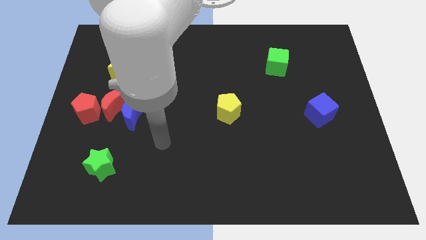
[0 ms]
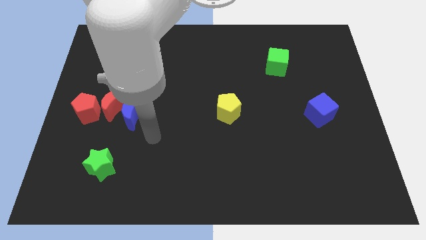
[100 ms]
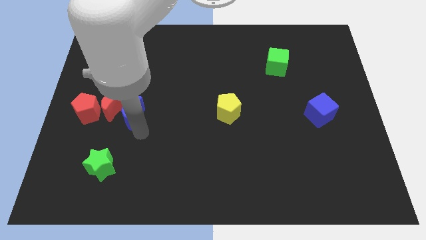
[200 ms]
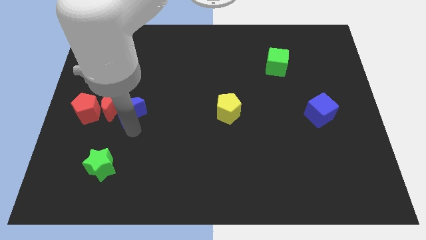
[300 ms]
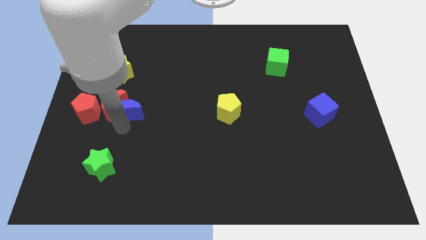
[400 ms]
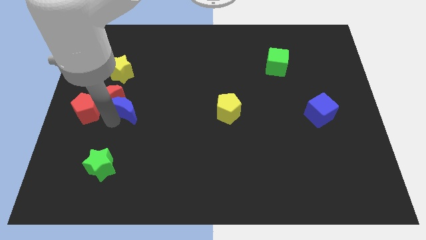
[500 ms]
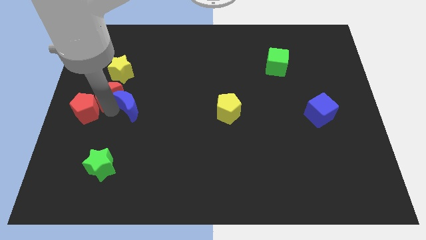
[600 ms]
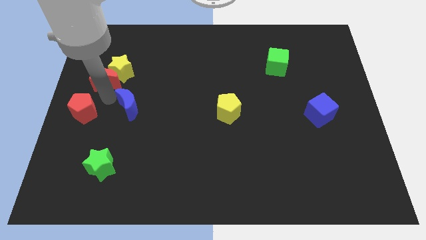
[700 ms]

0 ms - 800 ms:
separate the blue moon from the red moon

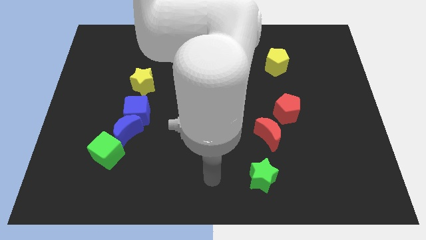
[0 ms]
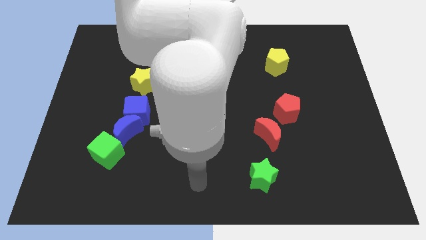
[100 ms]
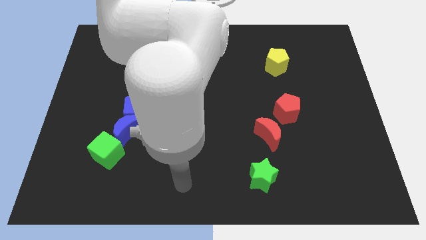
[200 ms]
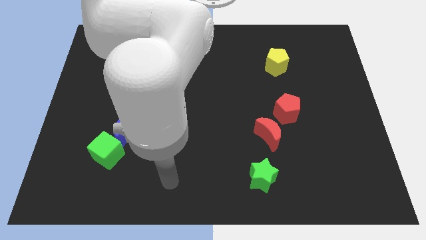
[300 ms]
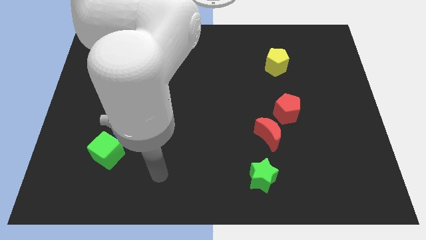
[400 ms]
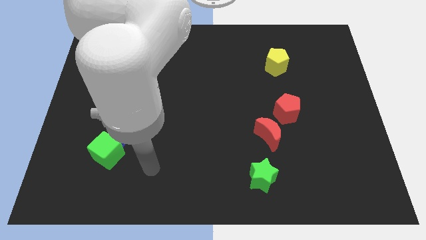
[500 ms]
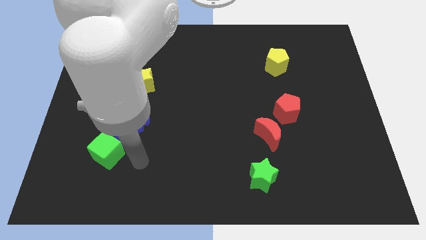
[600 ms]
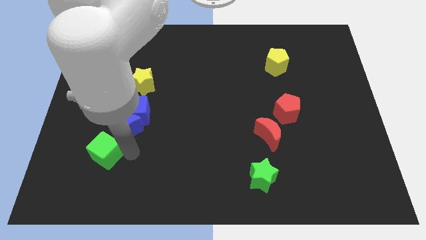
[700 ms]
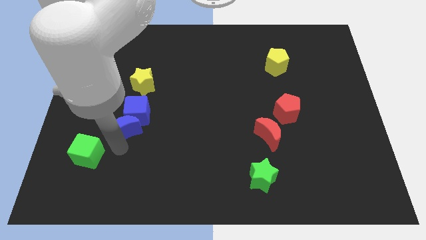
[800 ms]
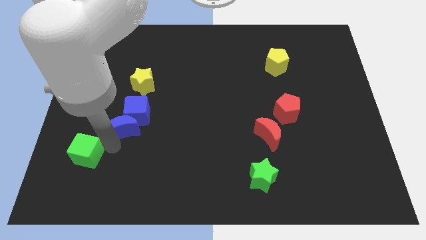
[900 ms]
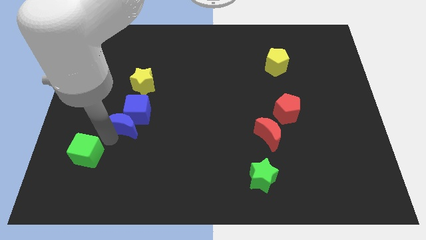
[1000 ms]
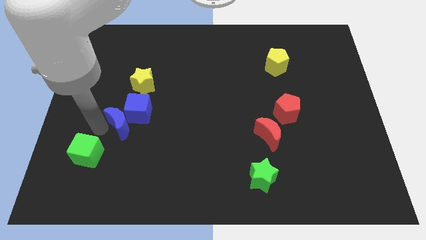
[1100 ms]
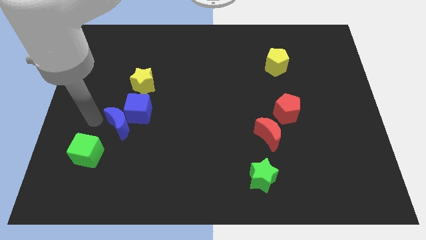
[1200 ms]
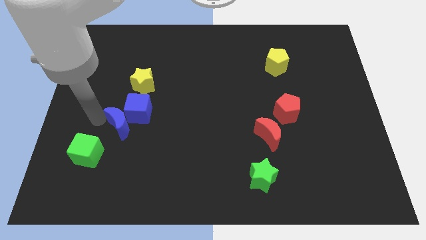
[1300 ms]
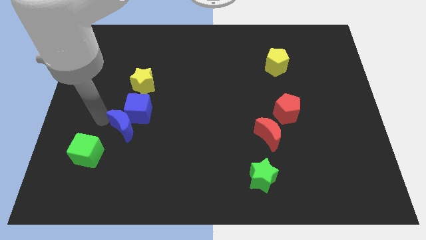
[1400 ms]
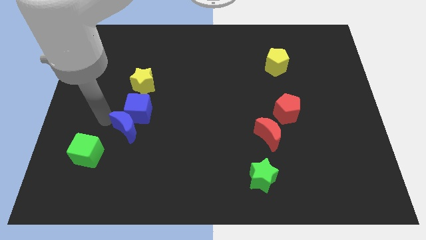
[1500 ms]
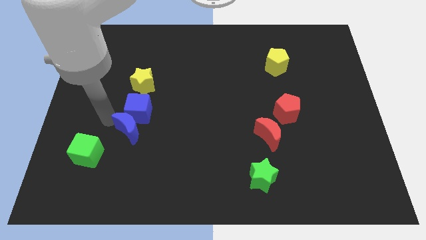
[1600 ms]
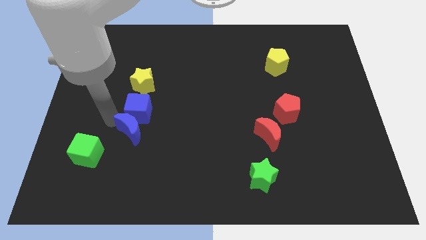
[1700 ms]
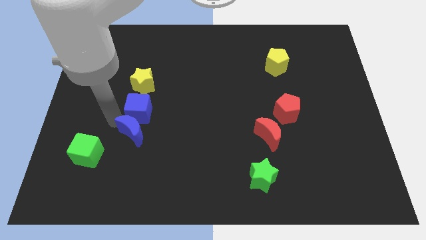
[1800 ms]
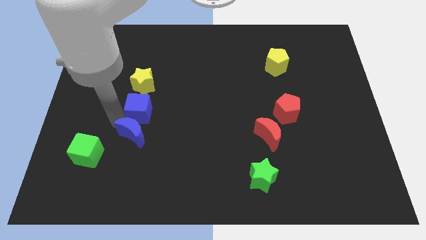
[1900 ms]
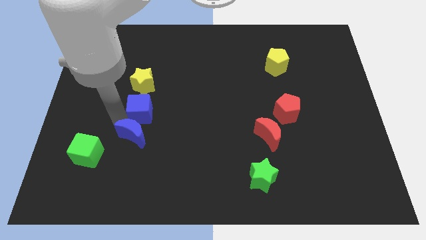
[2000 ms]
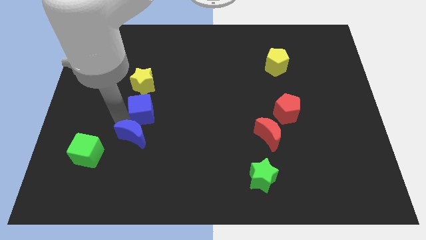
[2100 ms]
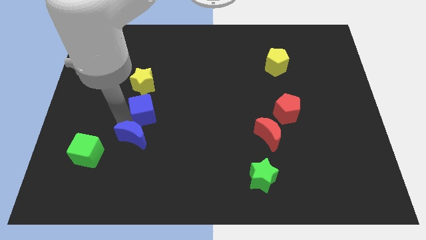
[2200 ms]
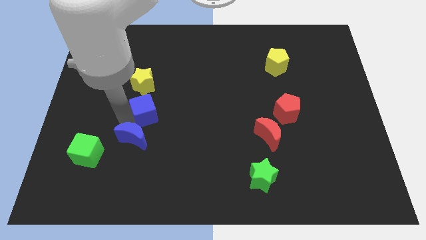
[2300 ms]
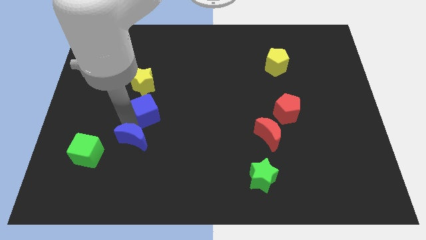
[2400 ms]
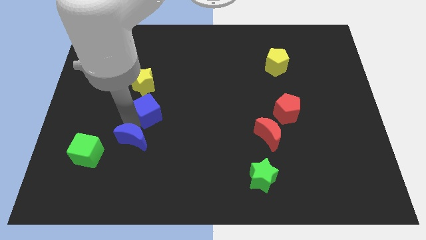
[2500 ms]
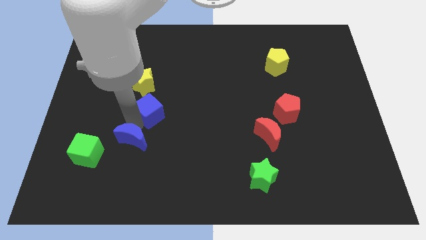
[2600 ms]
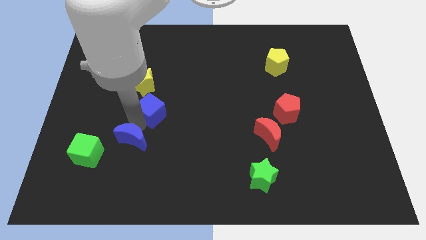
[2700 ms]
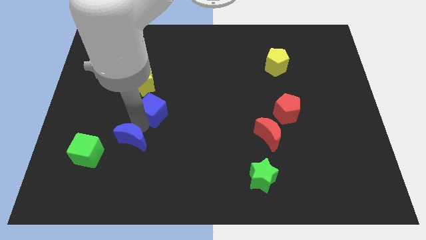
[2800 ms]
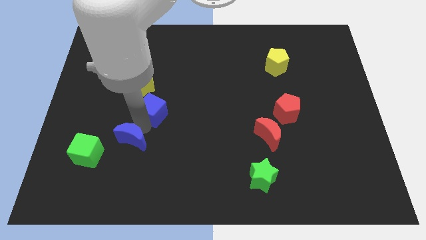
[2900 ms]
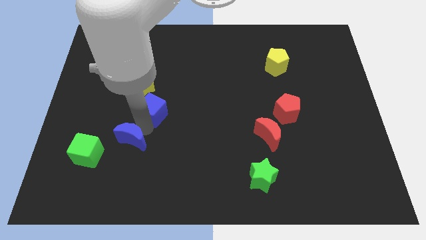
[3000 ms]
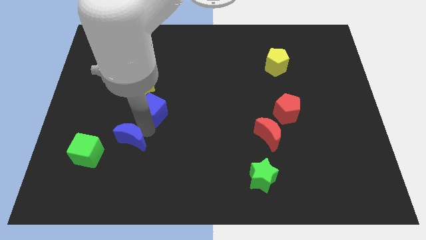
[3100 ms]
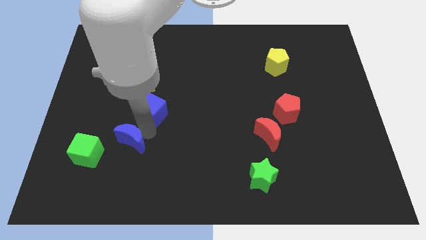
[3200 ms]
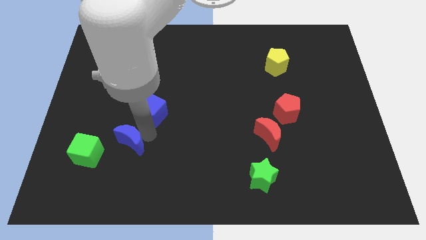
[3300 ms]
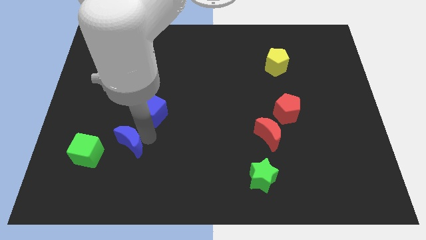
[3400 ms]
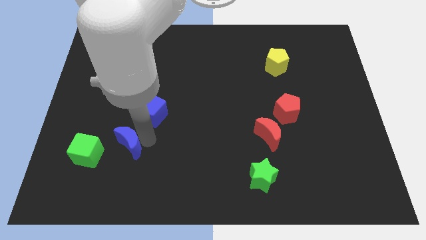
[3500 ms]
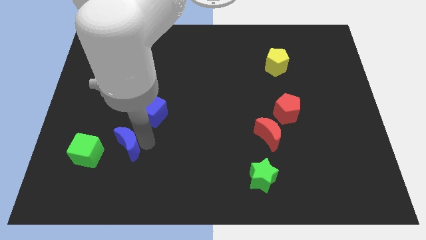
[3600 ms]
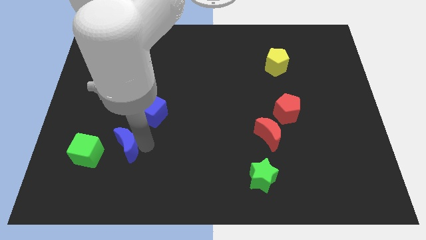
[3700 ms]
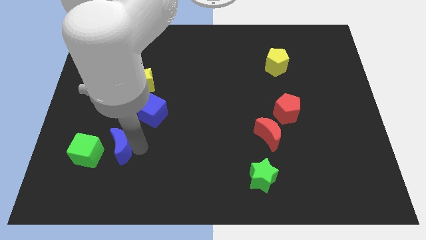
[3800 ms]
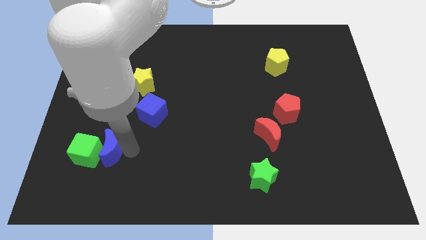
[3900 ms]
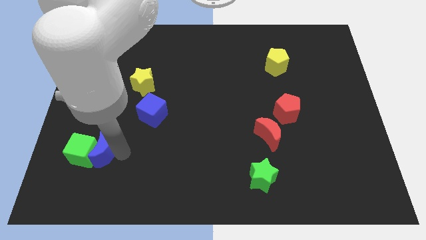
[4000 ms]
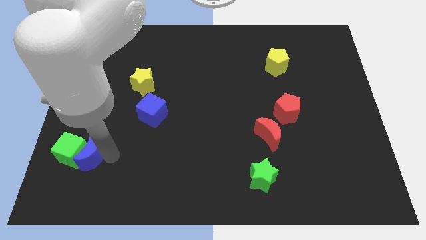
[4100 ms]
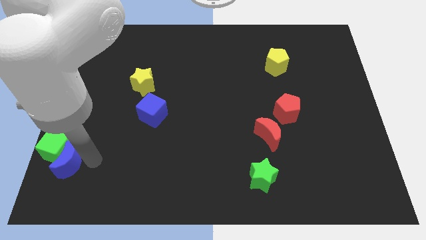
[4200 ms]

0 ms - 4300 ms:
move the blue moon away from the blue cube and green cube

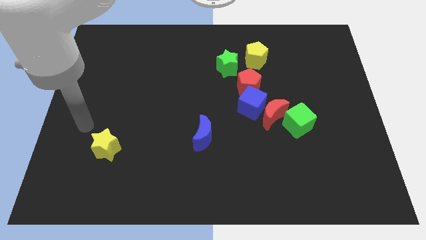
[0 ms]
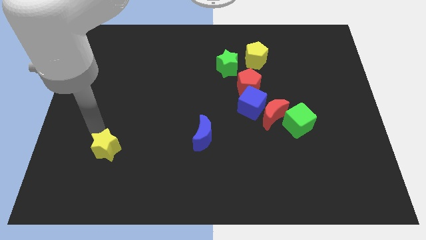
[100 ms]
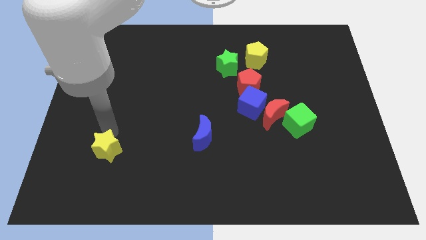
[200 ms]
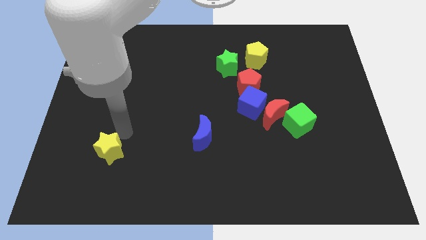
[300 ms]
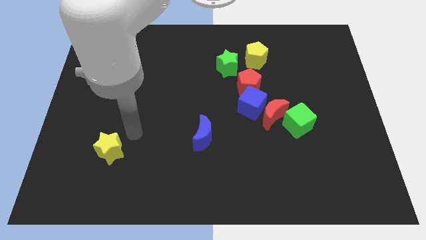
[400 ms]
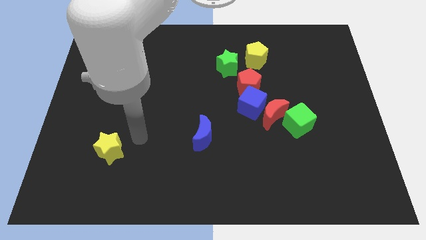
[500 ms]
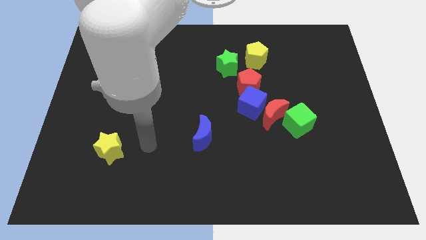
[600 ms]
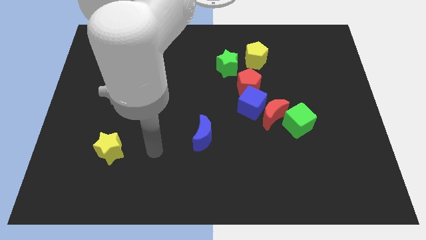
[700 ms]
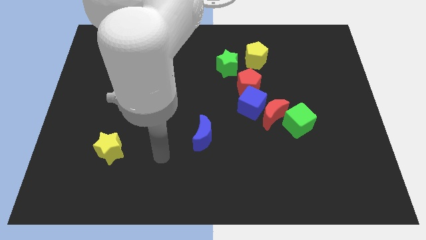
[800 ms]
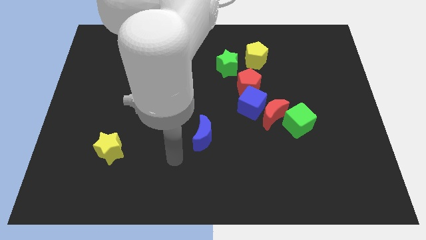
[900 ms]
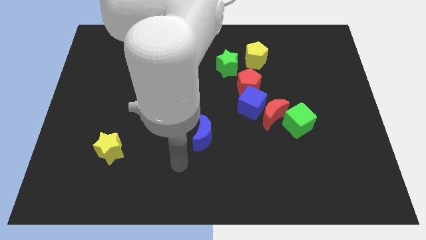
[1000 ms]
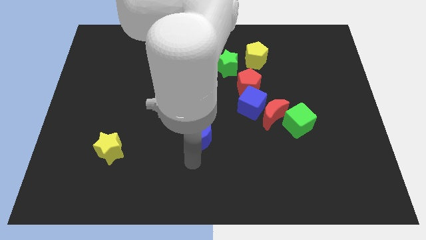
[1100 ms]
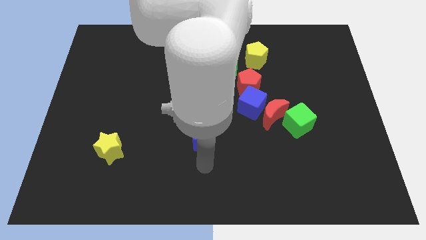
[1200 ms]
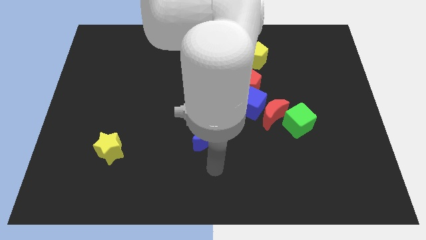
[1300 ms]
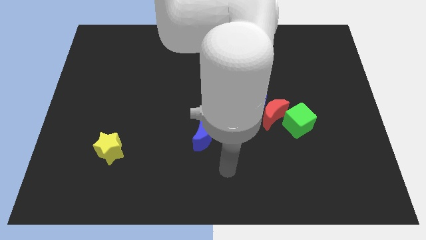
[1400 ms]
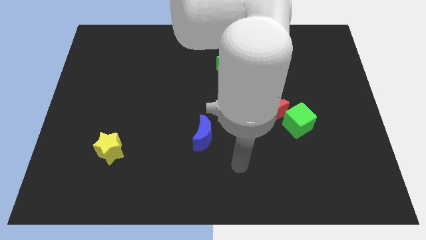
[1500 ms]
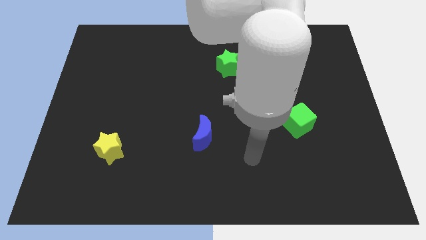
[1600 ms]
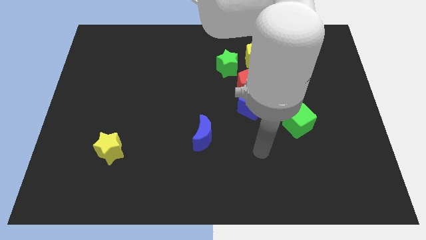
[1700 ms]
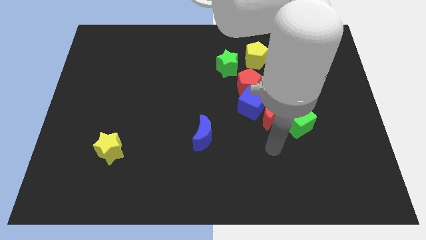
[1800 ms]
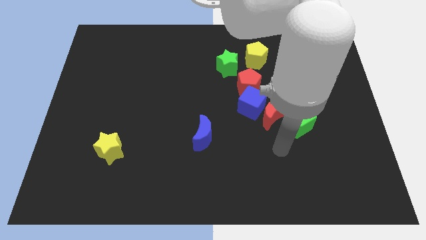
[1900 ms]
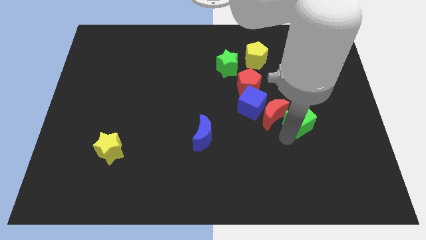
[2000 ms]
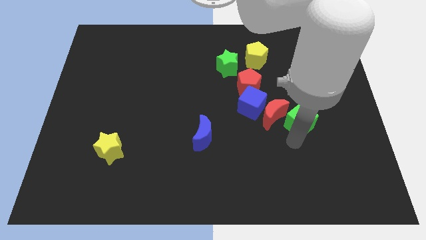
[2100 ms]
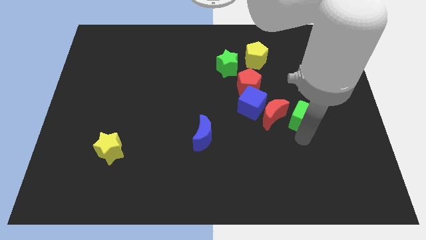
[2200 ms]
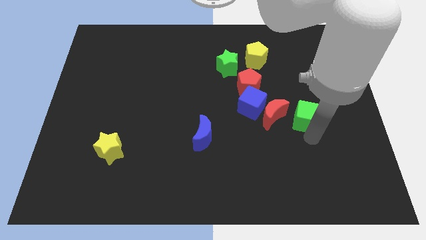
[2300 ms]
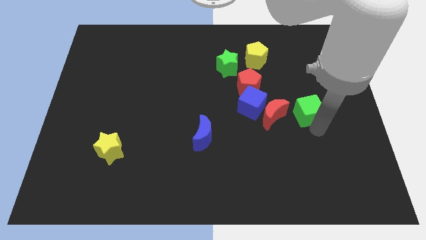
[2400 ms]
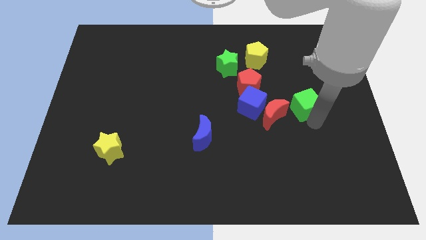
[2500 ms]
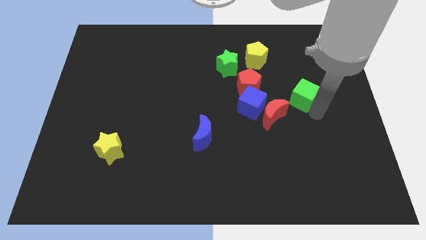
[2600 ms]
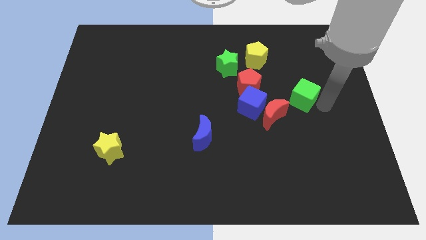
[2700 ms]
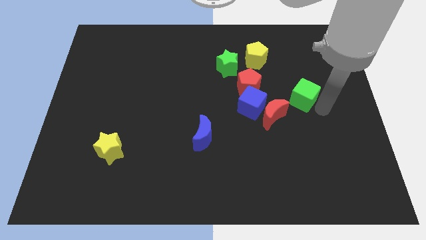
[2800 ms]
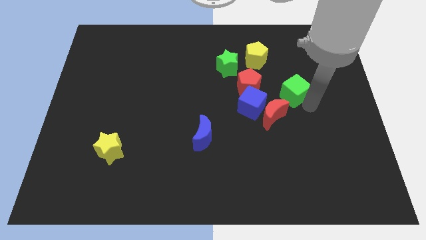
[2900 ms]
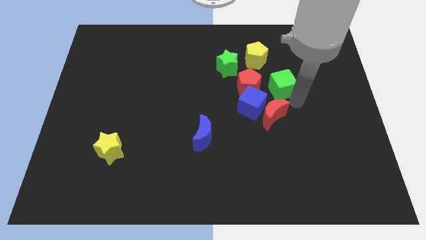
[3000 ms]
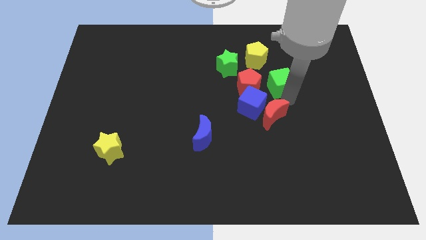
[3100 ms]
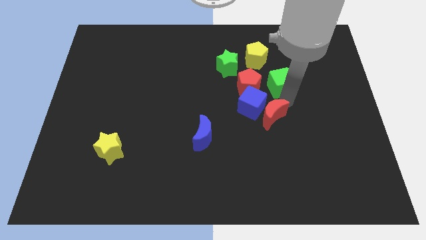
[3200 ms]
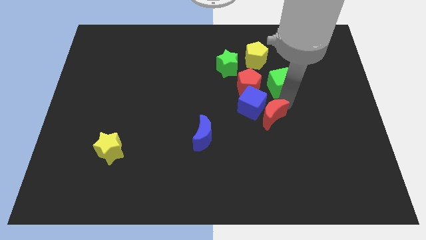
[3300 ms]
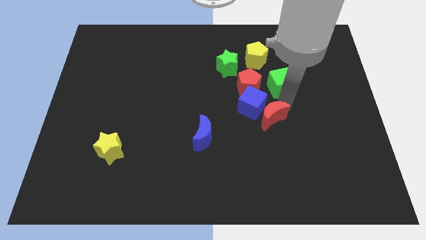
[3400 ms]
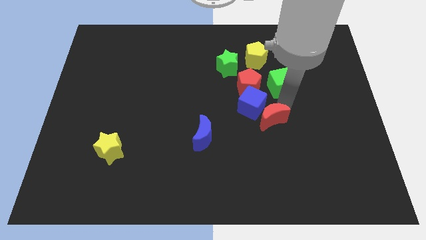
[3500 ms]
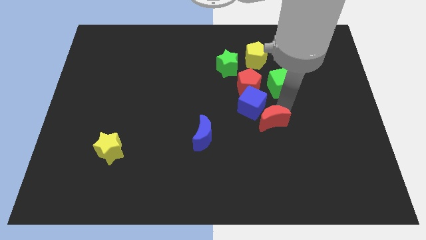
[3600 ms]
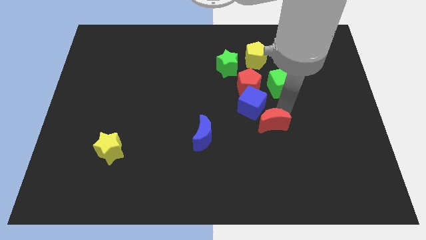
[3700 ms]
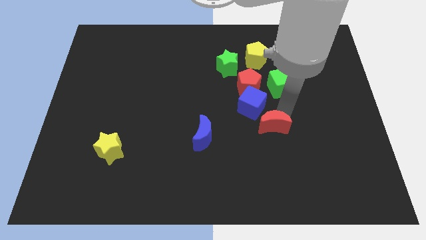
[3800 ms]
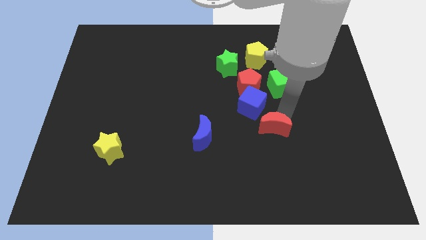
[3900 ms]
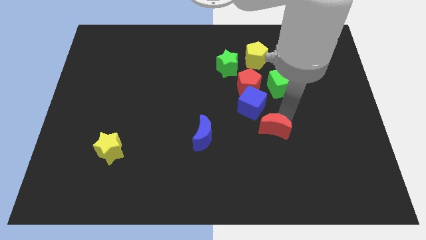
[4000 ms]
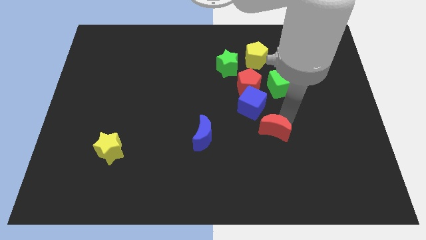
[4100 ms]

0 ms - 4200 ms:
move the red moon away from the blue cube and green cube
